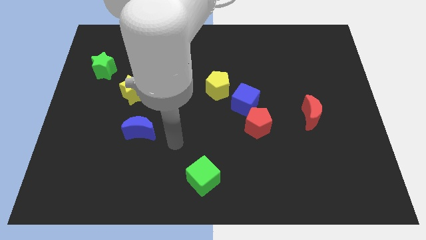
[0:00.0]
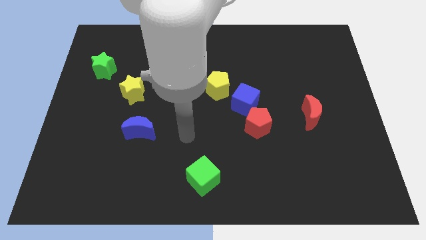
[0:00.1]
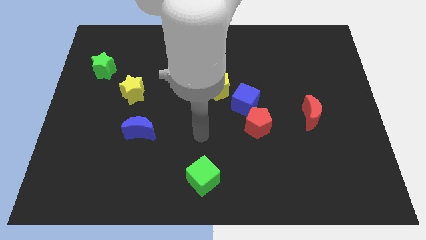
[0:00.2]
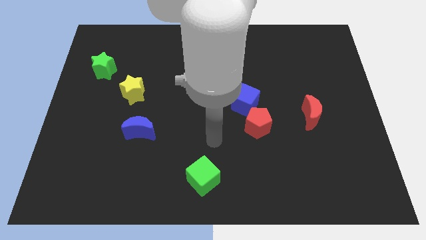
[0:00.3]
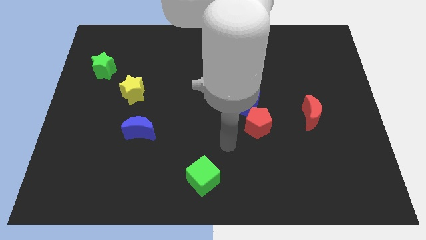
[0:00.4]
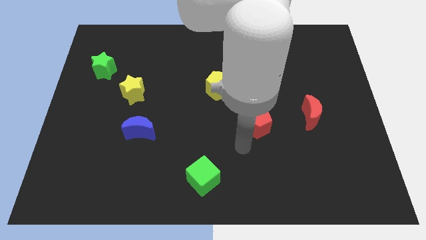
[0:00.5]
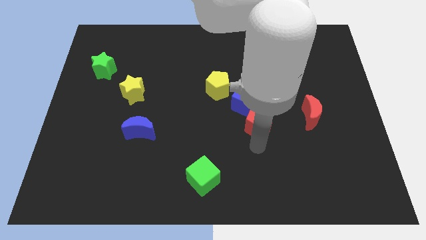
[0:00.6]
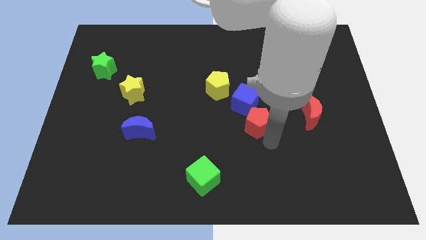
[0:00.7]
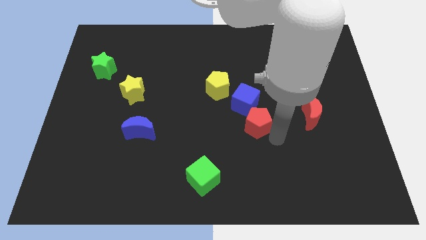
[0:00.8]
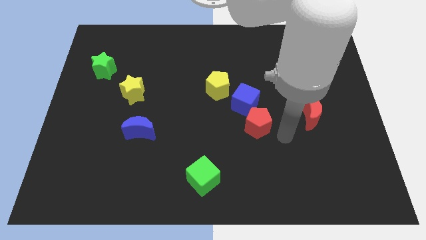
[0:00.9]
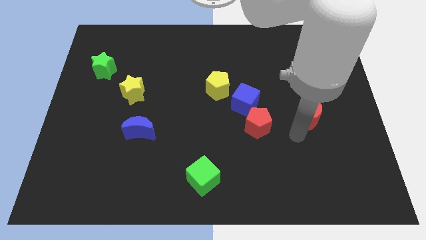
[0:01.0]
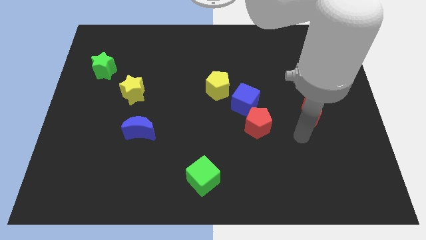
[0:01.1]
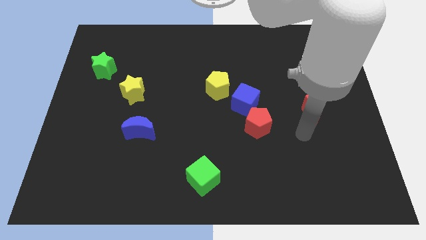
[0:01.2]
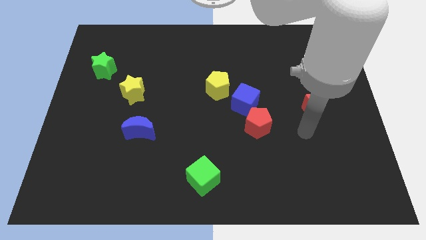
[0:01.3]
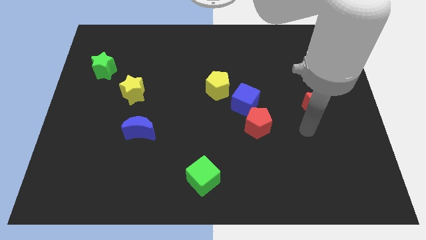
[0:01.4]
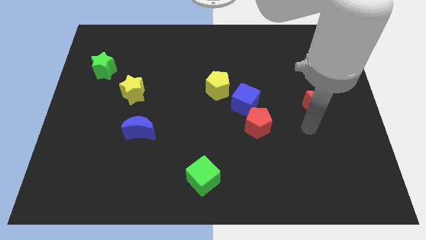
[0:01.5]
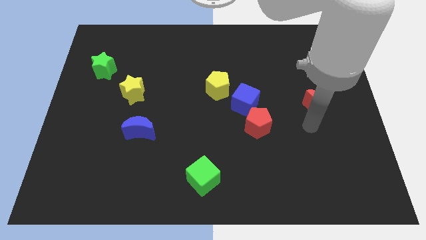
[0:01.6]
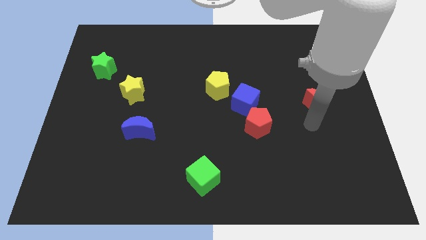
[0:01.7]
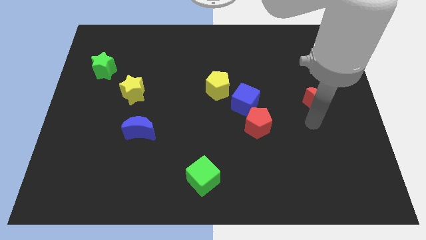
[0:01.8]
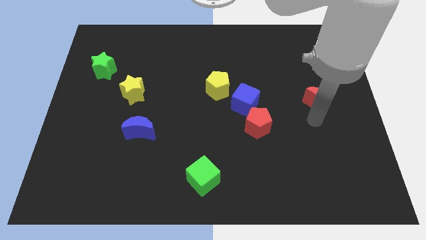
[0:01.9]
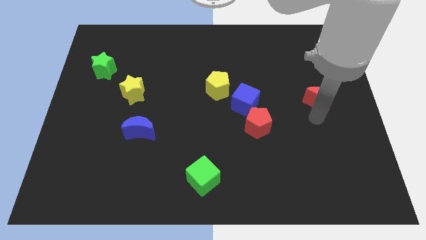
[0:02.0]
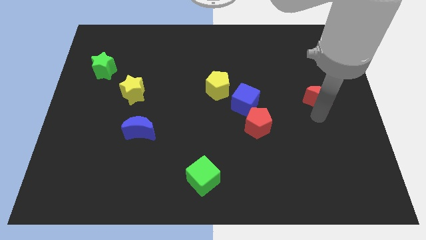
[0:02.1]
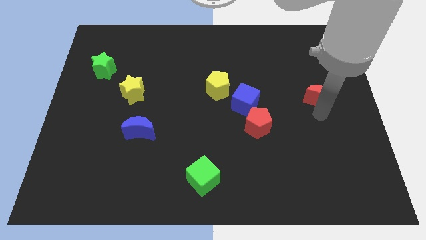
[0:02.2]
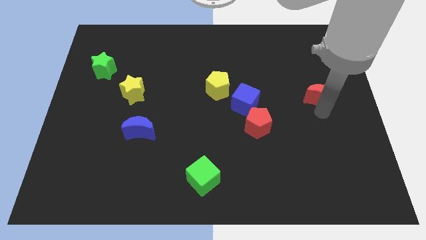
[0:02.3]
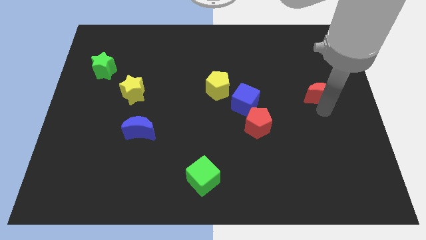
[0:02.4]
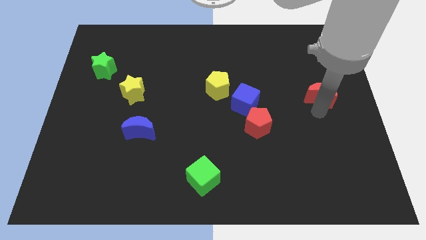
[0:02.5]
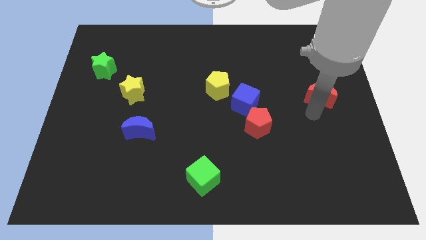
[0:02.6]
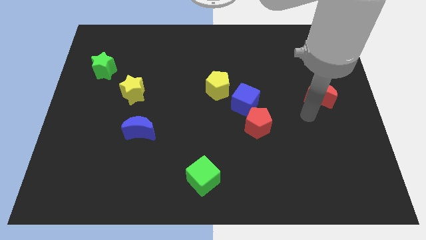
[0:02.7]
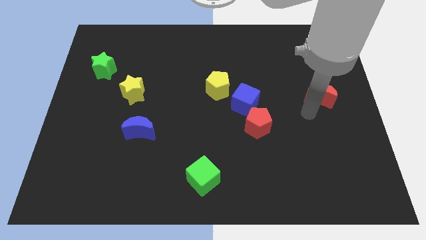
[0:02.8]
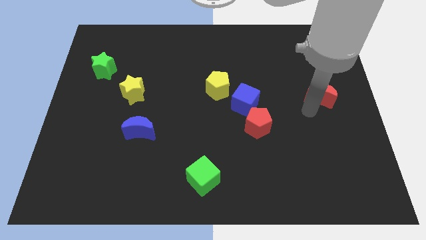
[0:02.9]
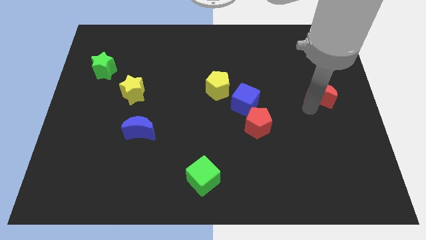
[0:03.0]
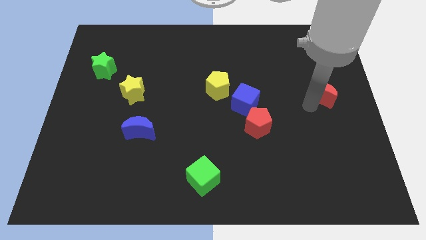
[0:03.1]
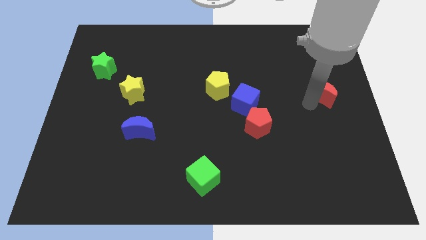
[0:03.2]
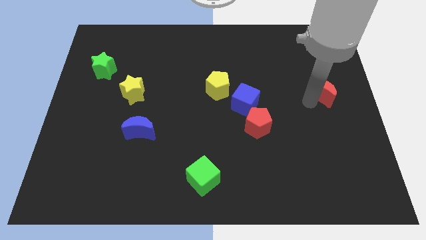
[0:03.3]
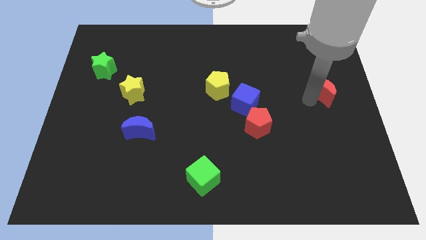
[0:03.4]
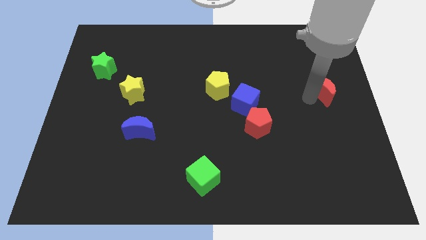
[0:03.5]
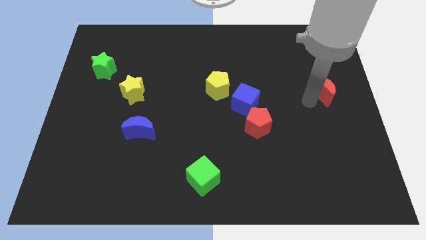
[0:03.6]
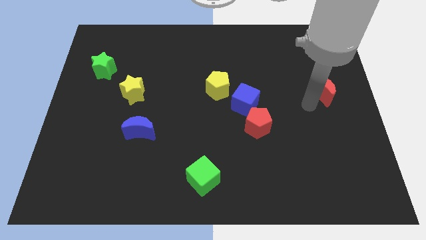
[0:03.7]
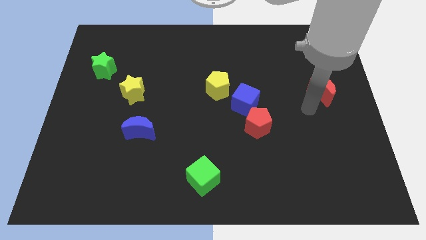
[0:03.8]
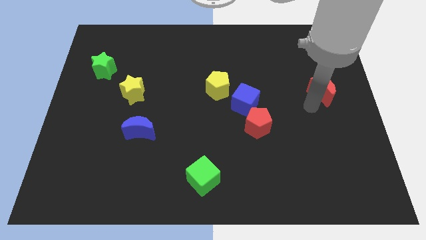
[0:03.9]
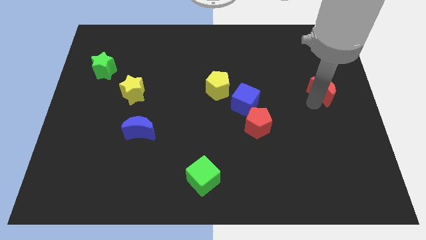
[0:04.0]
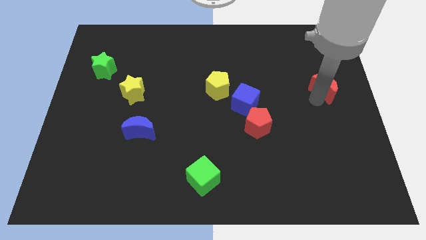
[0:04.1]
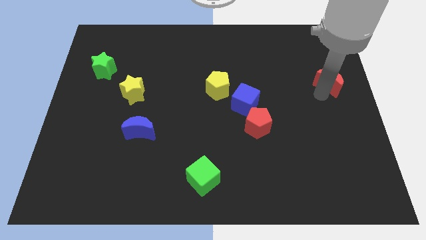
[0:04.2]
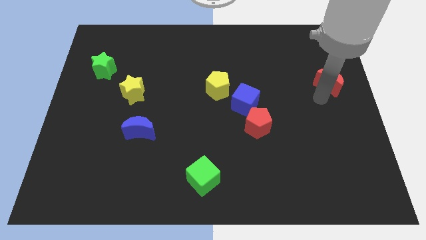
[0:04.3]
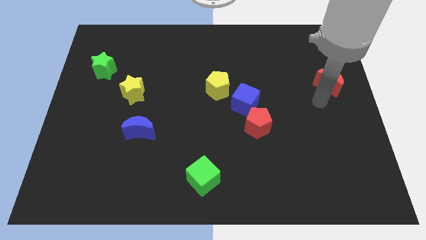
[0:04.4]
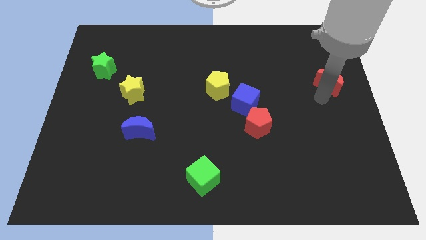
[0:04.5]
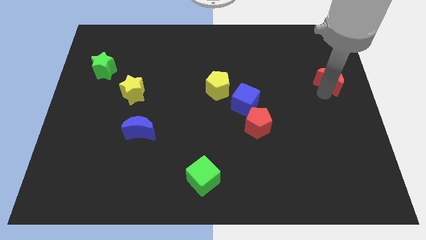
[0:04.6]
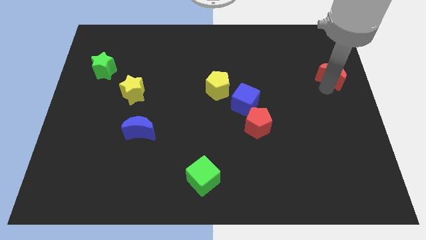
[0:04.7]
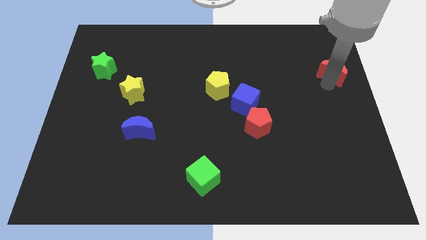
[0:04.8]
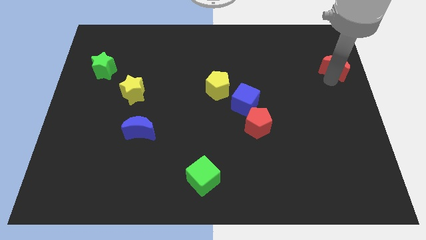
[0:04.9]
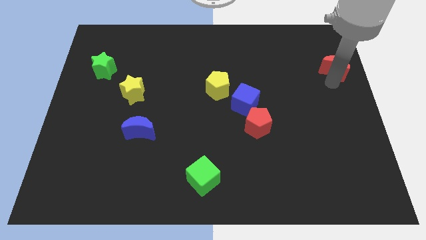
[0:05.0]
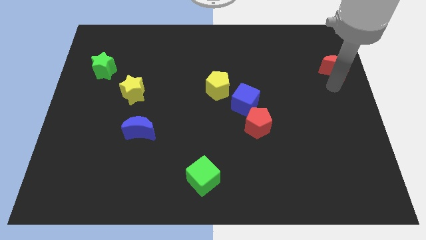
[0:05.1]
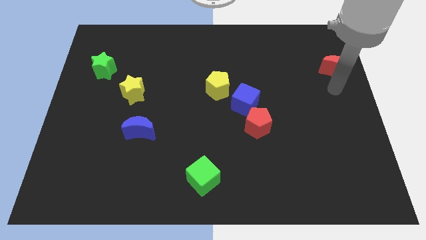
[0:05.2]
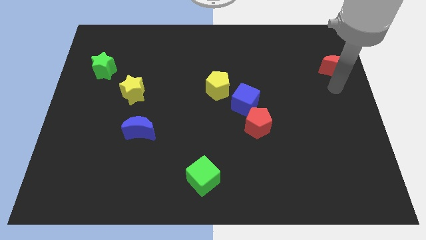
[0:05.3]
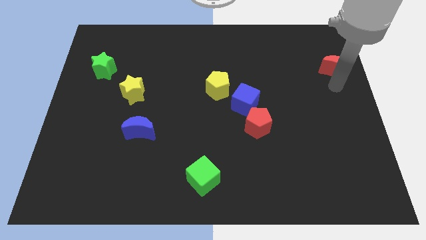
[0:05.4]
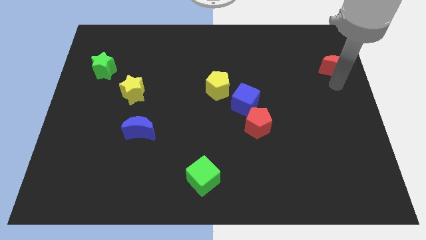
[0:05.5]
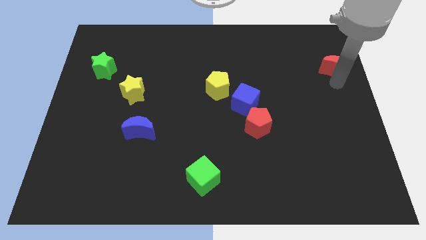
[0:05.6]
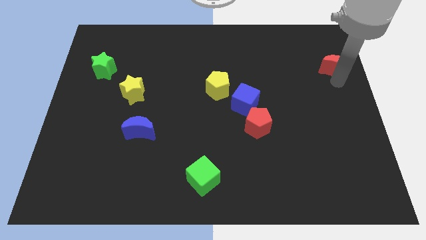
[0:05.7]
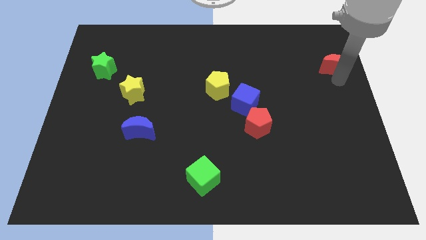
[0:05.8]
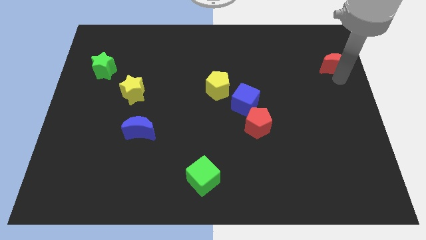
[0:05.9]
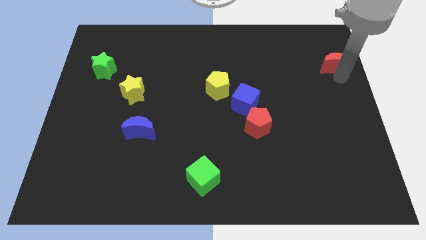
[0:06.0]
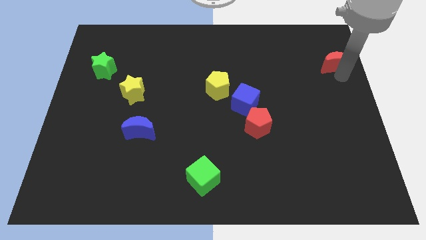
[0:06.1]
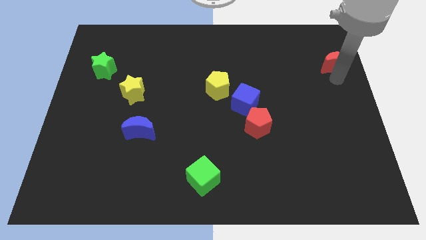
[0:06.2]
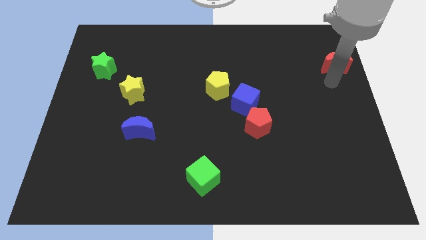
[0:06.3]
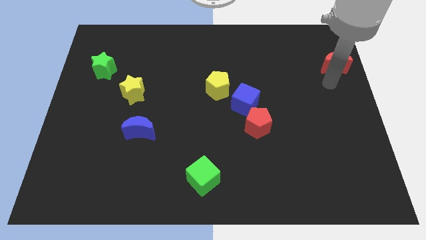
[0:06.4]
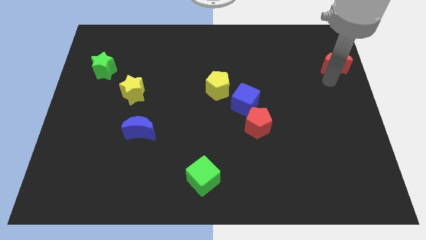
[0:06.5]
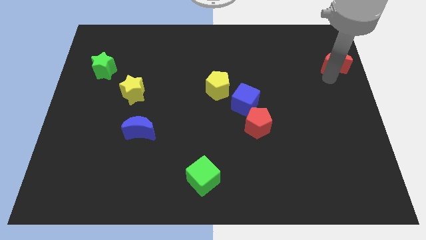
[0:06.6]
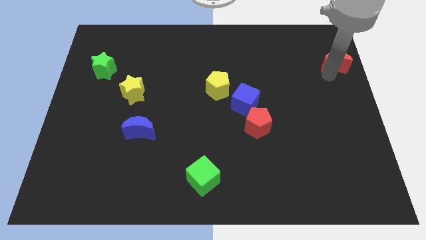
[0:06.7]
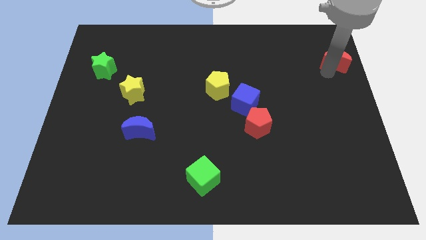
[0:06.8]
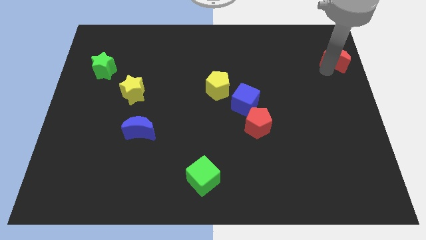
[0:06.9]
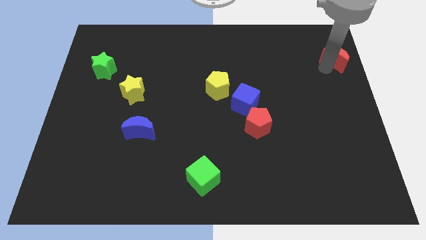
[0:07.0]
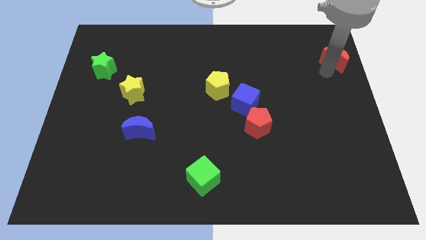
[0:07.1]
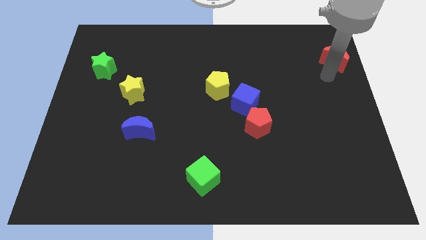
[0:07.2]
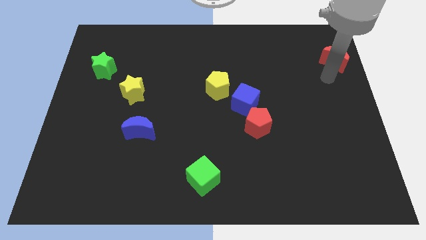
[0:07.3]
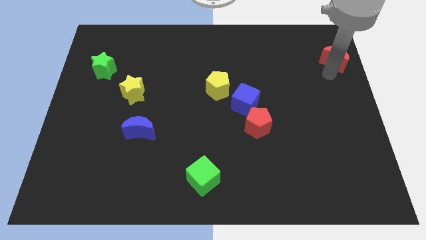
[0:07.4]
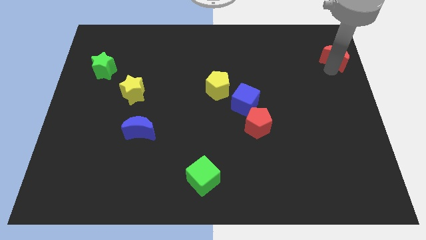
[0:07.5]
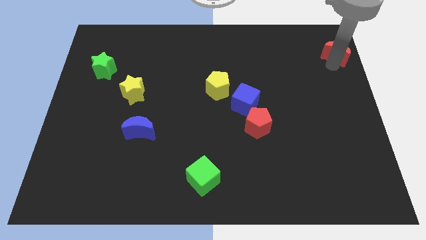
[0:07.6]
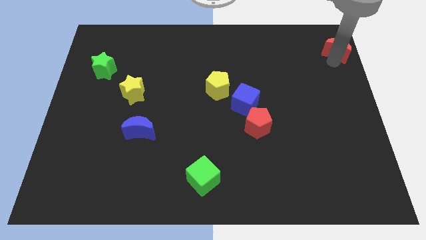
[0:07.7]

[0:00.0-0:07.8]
move the red moon to the top right corner
